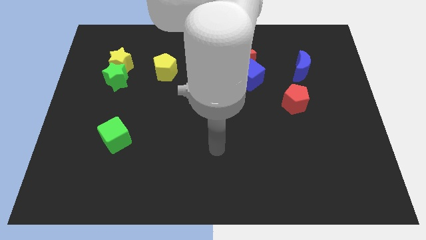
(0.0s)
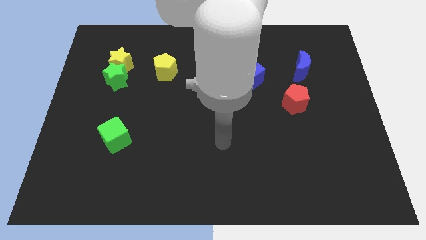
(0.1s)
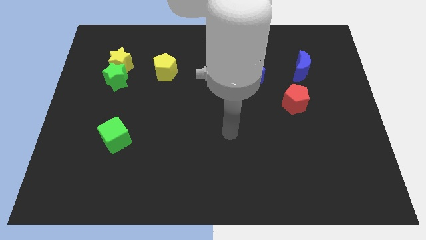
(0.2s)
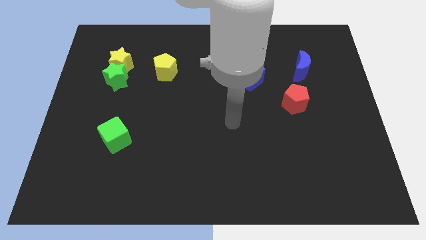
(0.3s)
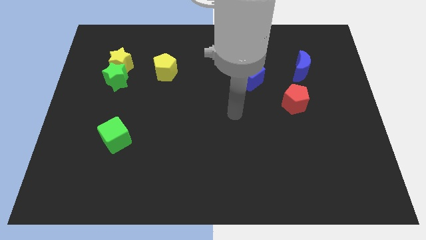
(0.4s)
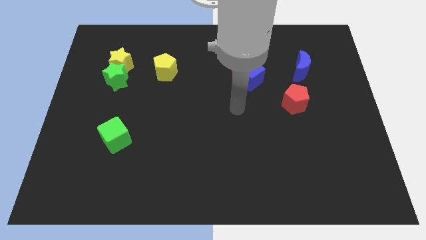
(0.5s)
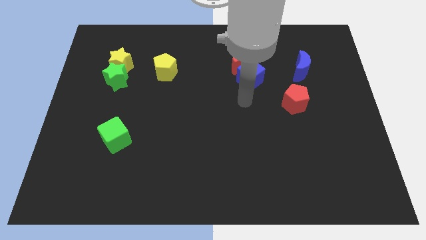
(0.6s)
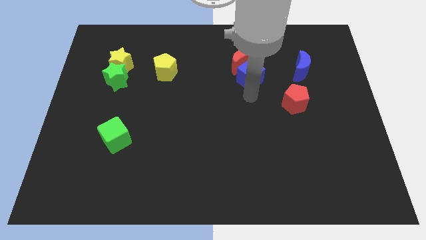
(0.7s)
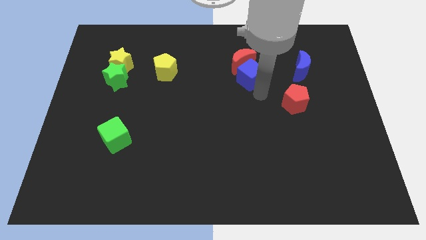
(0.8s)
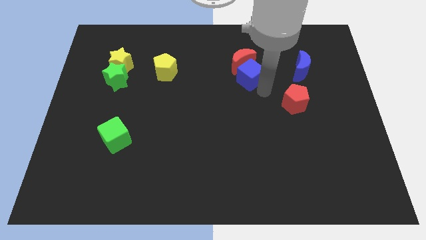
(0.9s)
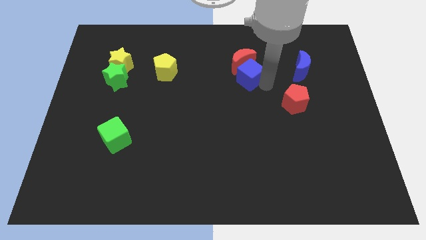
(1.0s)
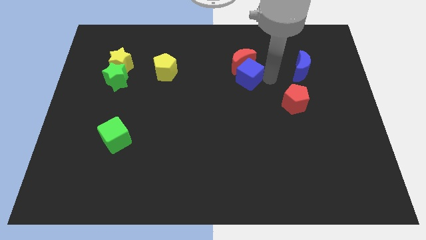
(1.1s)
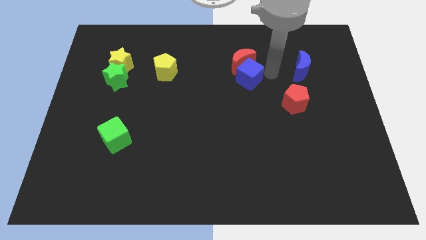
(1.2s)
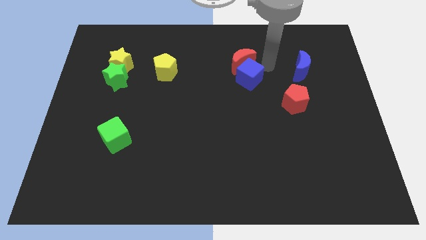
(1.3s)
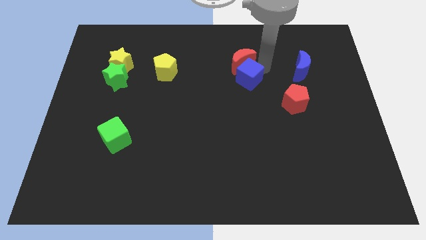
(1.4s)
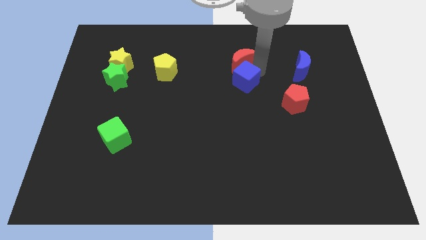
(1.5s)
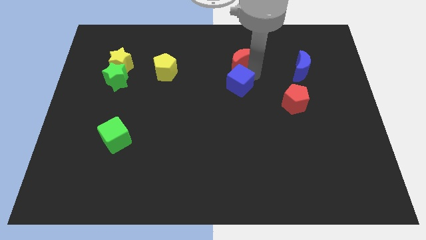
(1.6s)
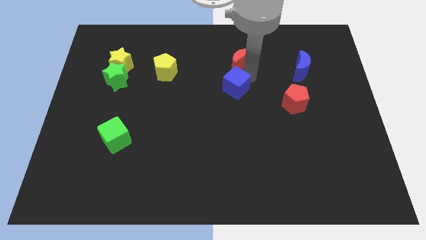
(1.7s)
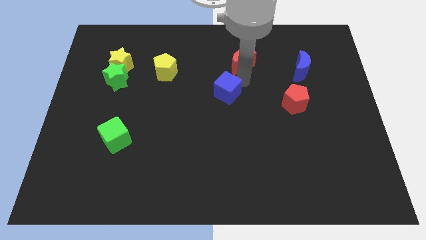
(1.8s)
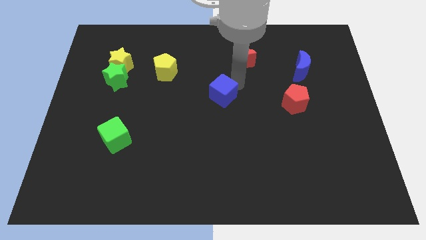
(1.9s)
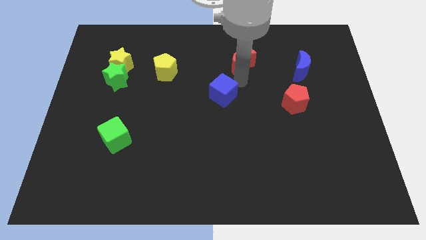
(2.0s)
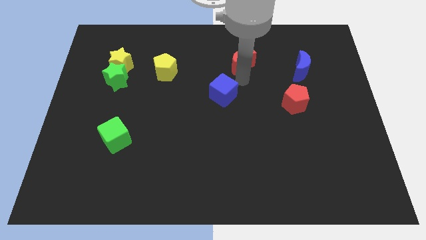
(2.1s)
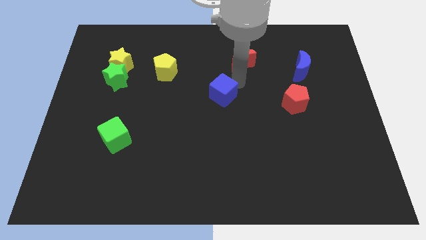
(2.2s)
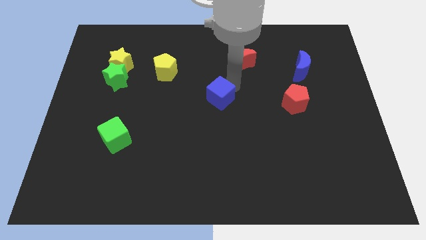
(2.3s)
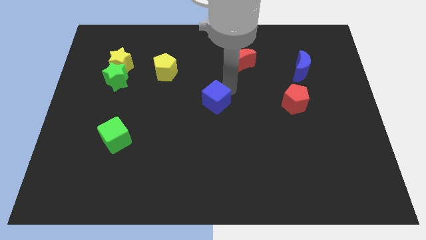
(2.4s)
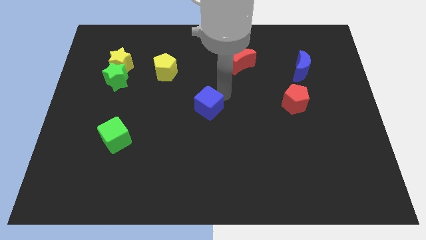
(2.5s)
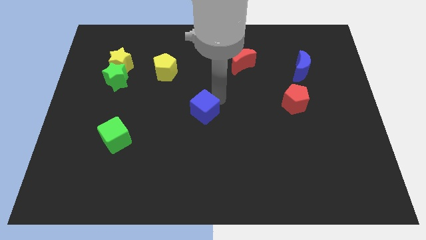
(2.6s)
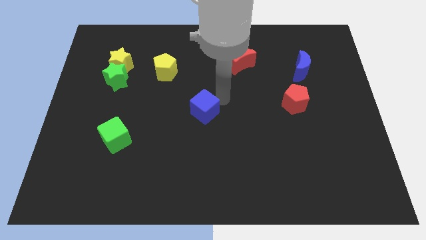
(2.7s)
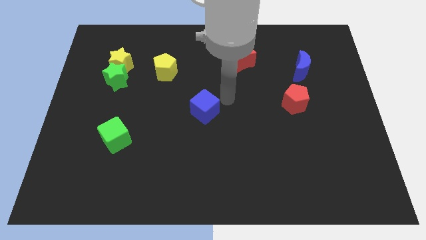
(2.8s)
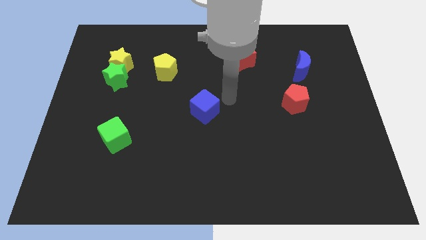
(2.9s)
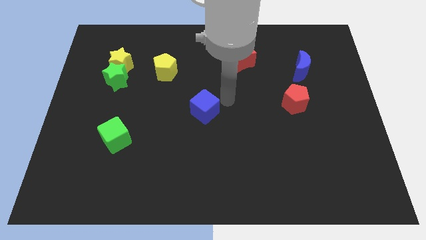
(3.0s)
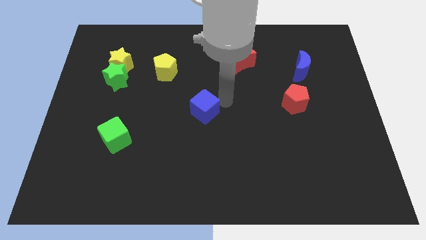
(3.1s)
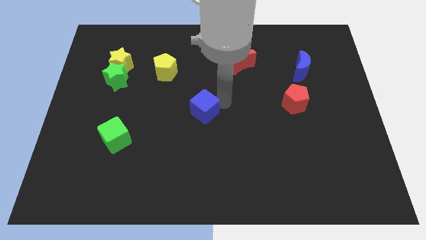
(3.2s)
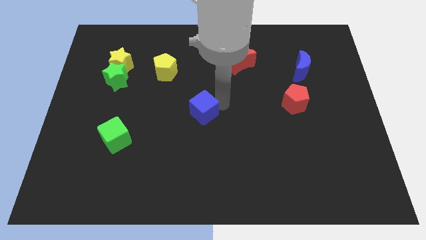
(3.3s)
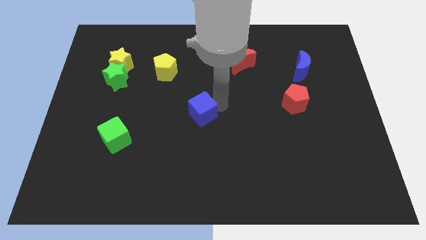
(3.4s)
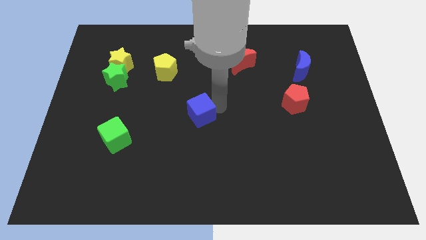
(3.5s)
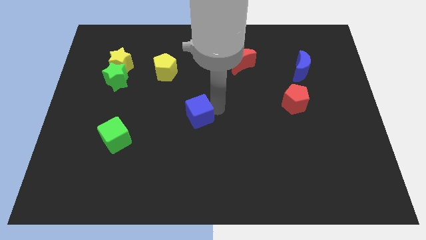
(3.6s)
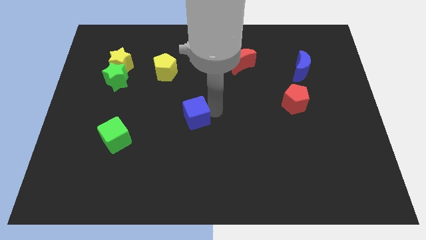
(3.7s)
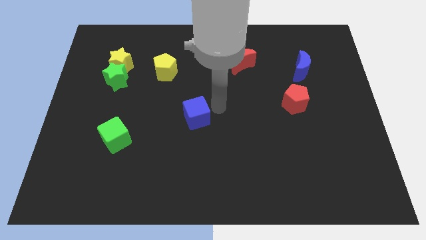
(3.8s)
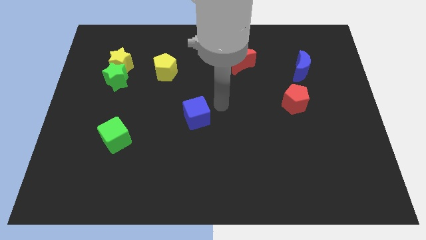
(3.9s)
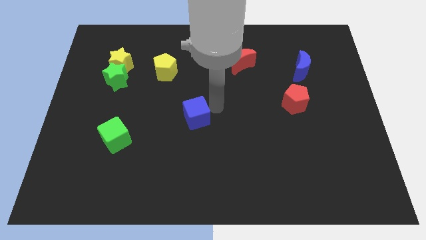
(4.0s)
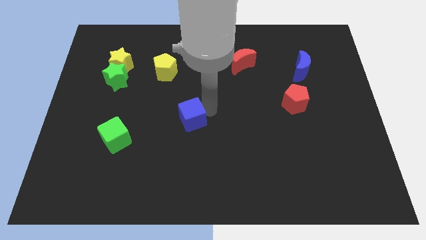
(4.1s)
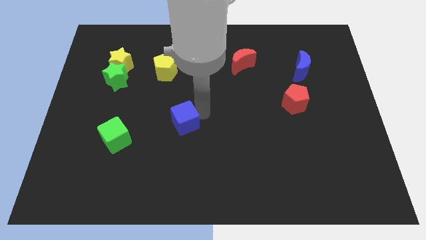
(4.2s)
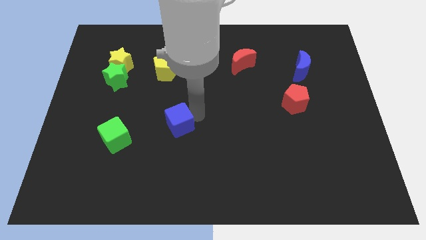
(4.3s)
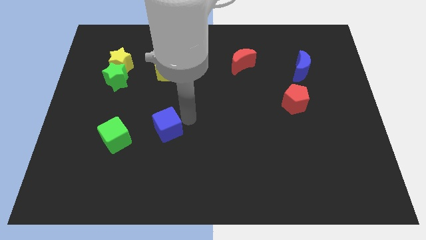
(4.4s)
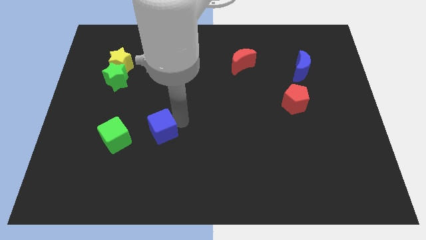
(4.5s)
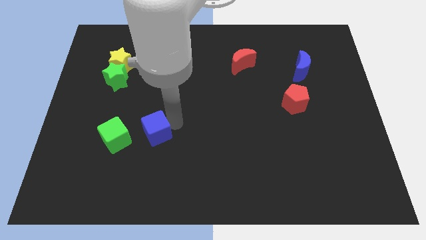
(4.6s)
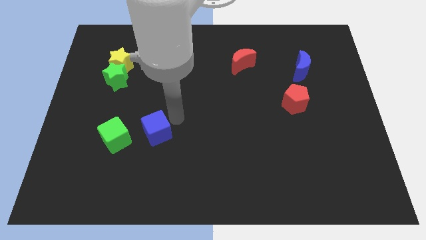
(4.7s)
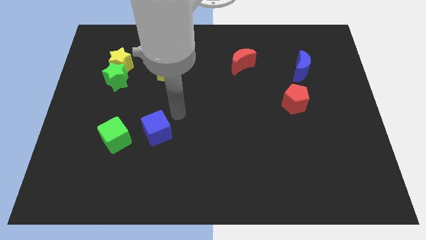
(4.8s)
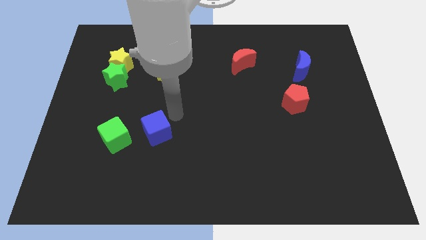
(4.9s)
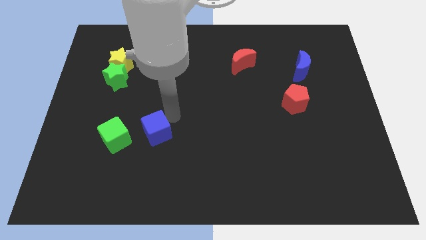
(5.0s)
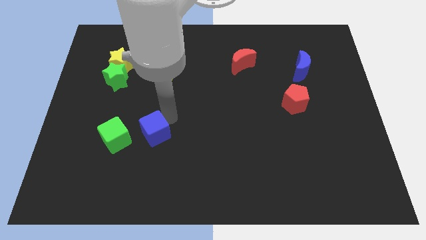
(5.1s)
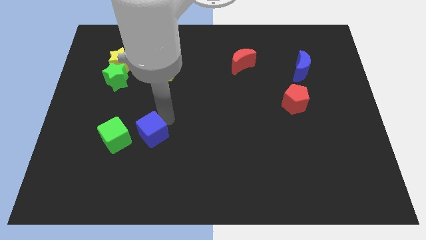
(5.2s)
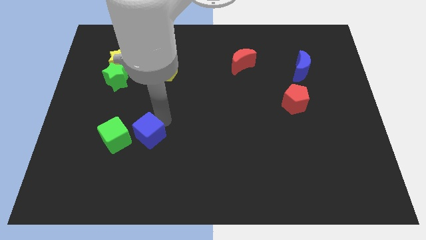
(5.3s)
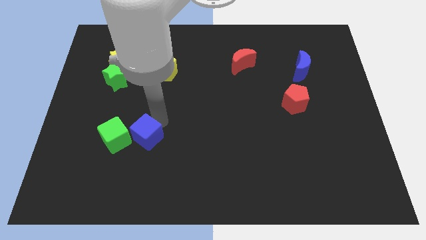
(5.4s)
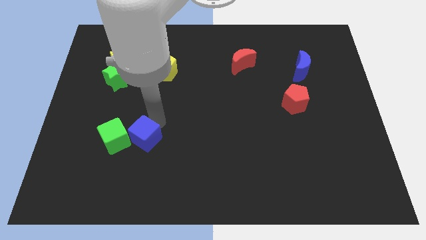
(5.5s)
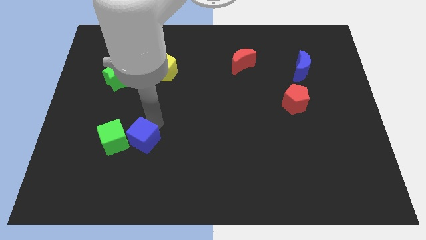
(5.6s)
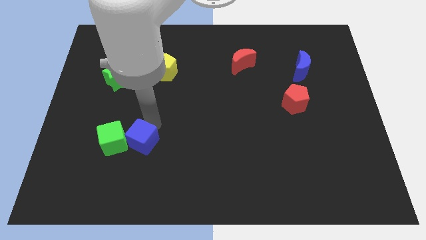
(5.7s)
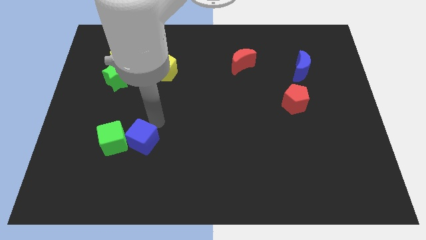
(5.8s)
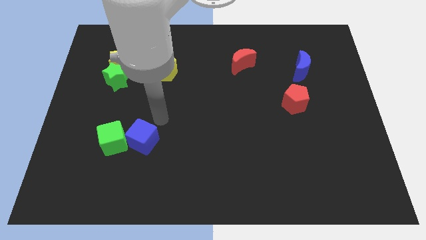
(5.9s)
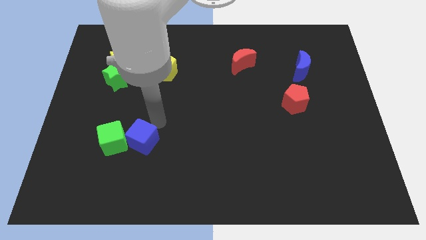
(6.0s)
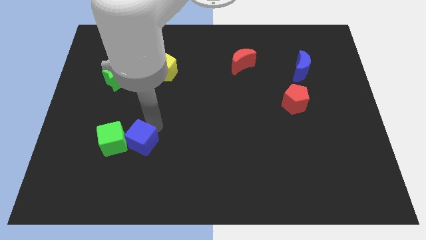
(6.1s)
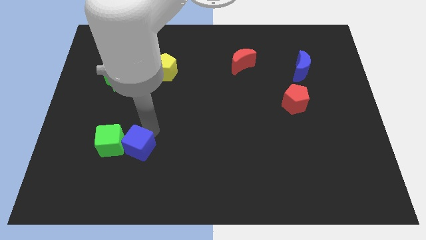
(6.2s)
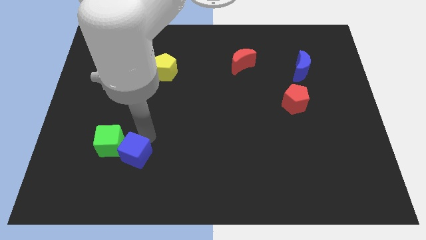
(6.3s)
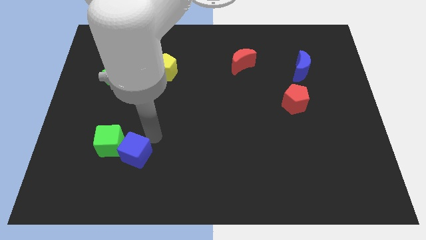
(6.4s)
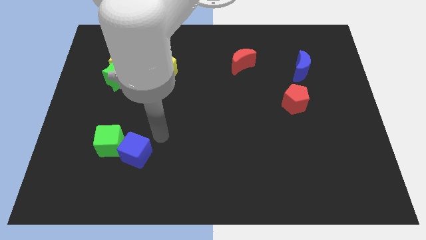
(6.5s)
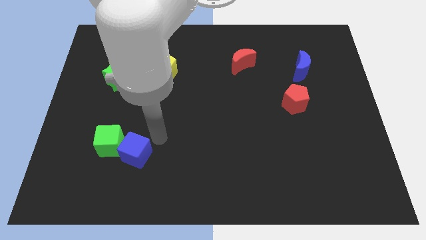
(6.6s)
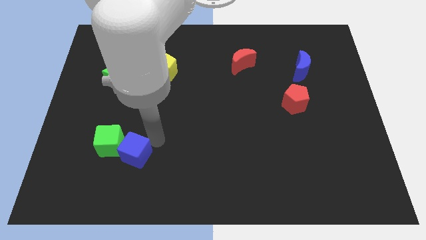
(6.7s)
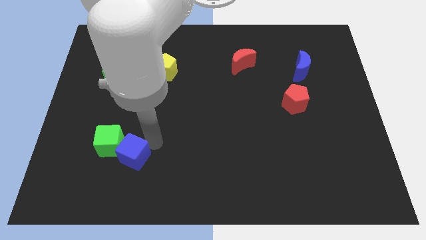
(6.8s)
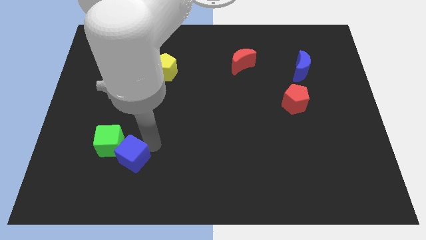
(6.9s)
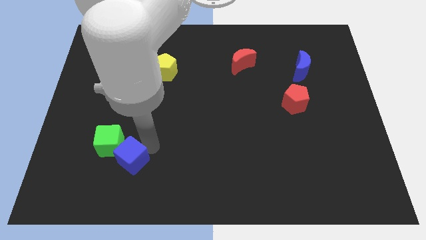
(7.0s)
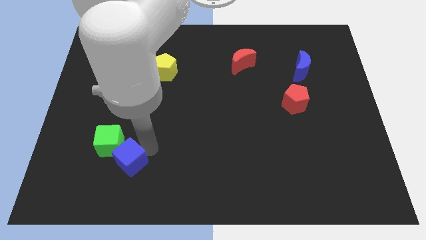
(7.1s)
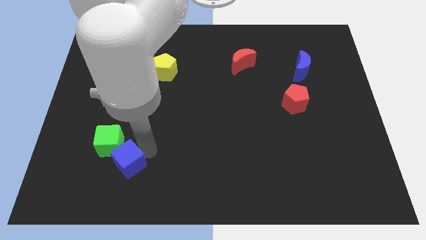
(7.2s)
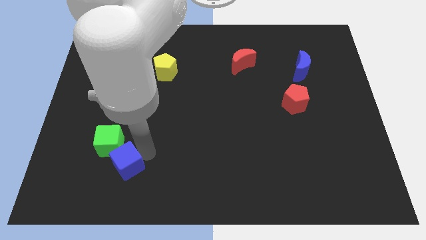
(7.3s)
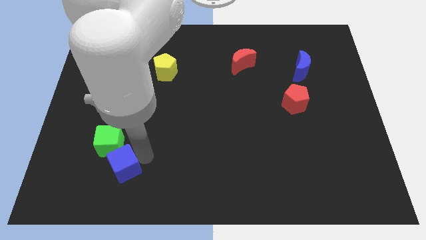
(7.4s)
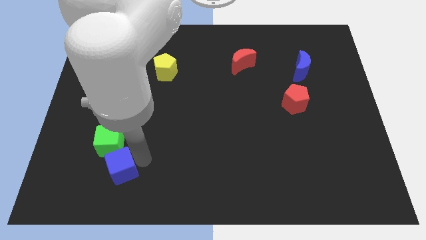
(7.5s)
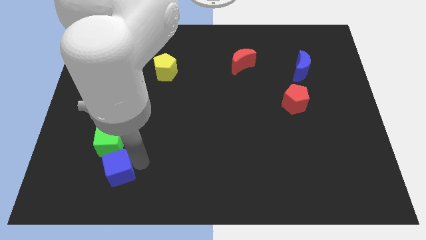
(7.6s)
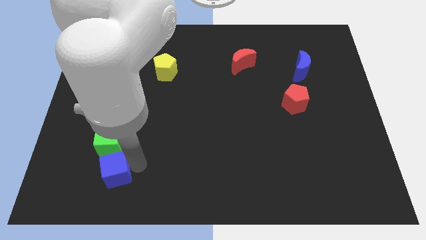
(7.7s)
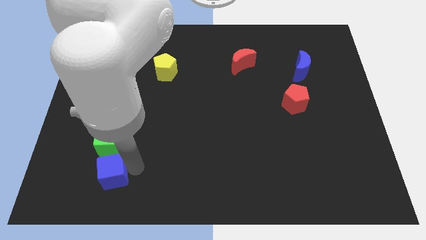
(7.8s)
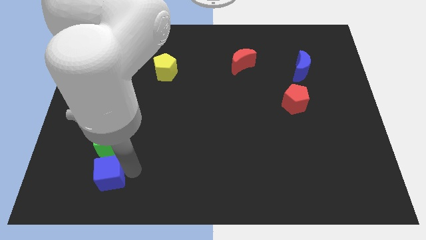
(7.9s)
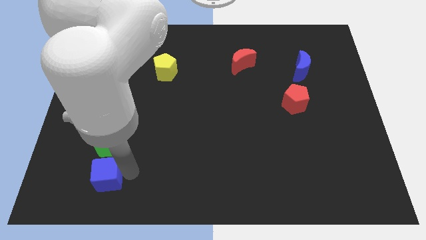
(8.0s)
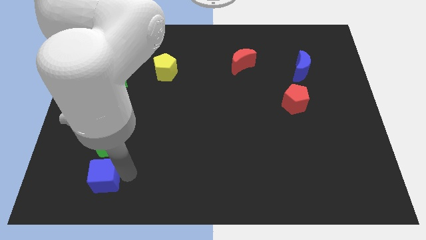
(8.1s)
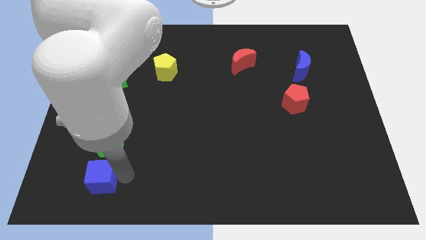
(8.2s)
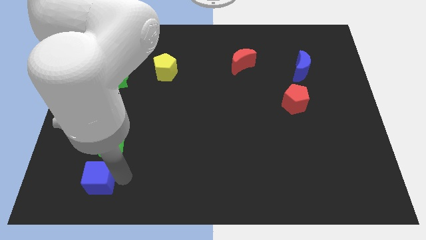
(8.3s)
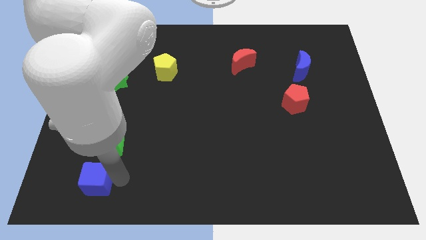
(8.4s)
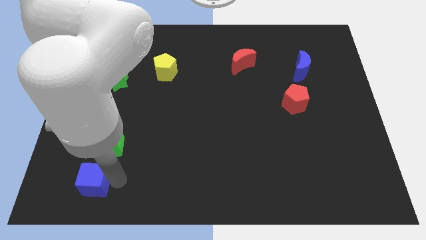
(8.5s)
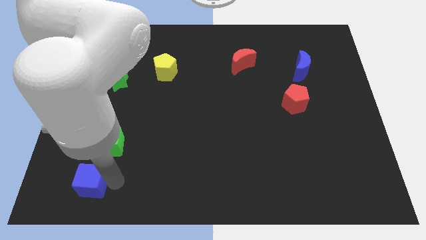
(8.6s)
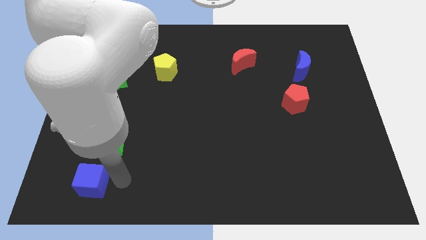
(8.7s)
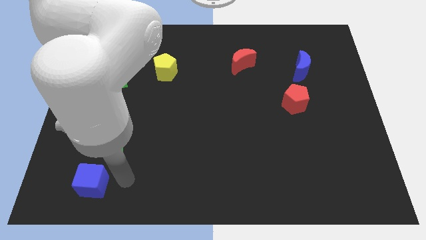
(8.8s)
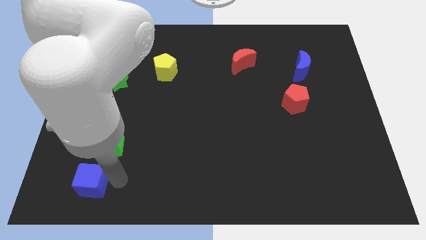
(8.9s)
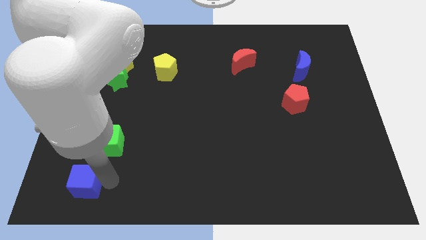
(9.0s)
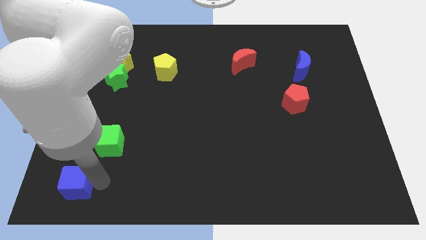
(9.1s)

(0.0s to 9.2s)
move the blue cube to the bottom left of the board
